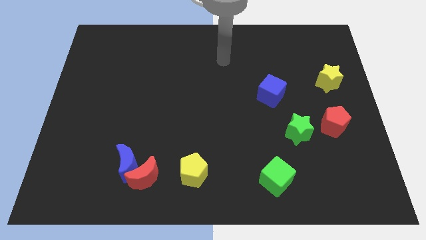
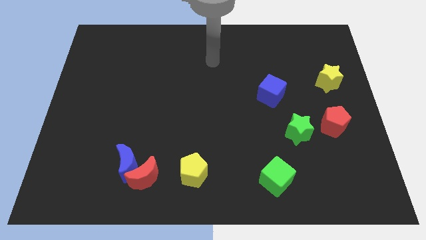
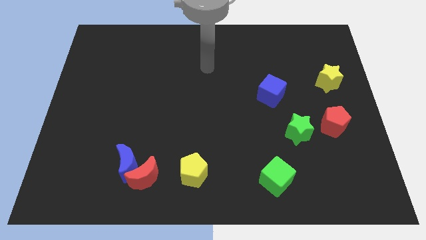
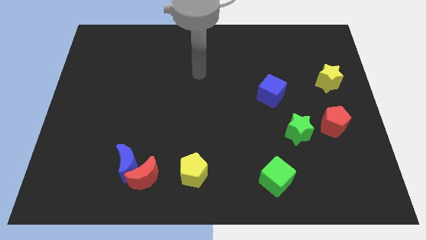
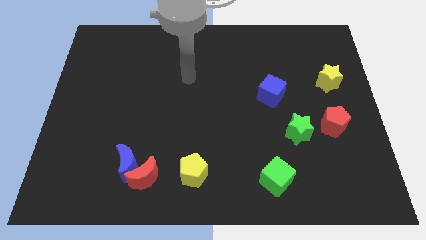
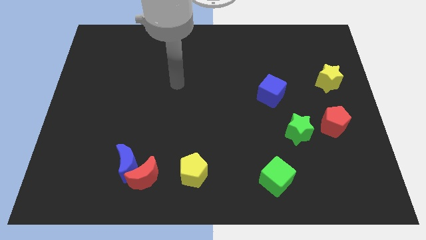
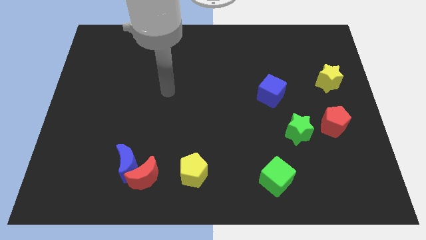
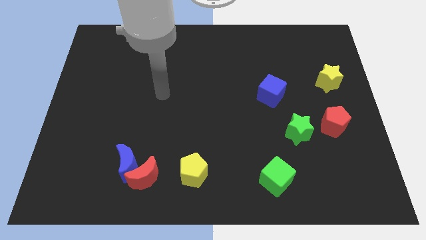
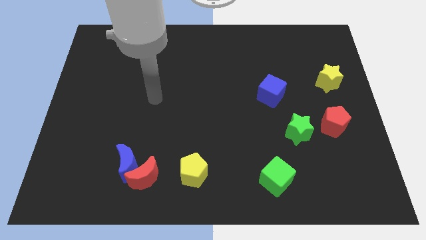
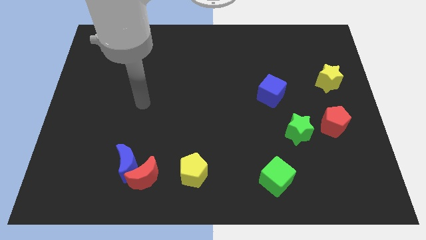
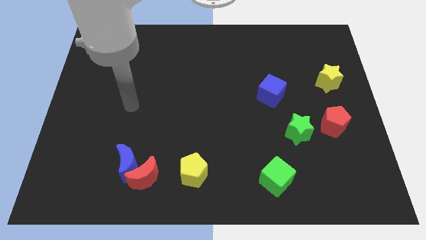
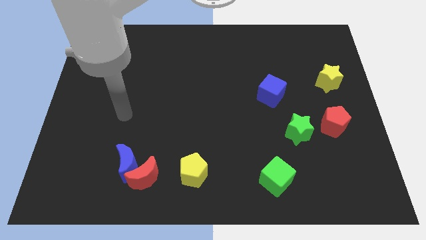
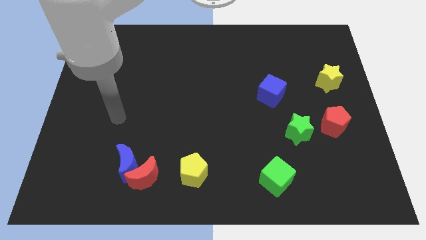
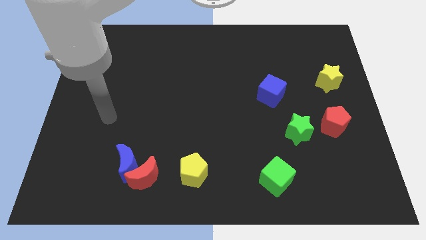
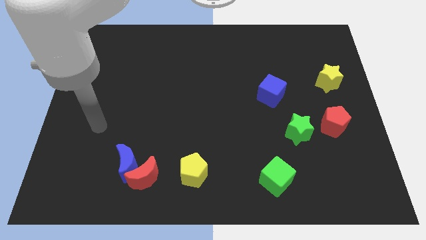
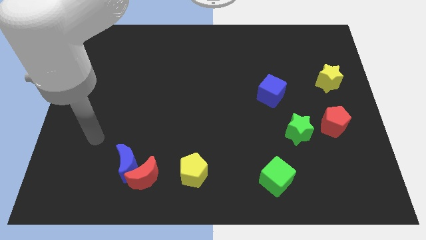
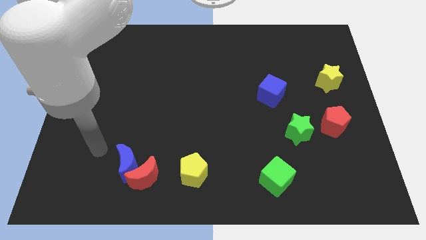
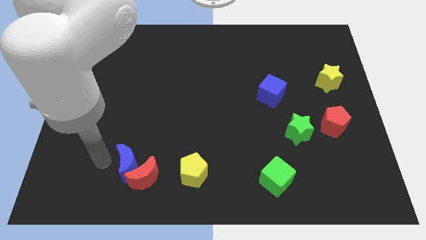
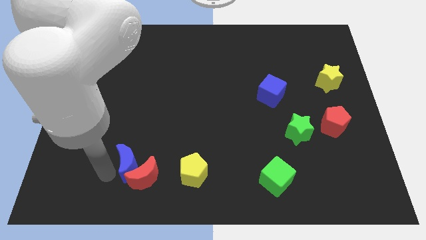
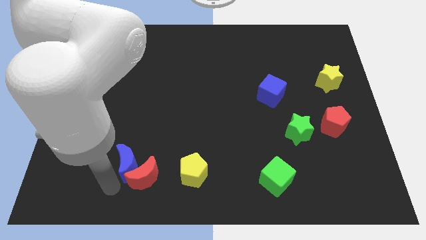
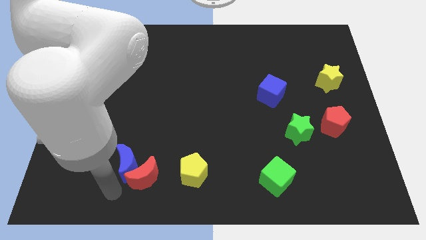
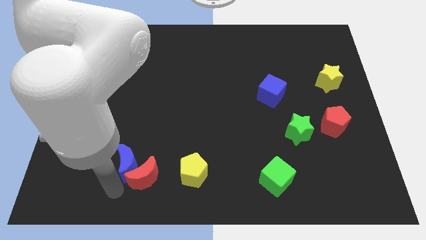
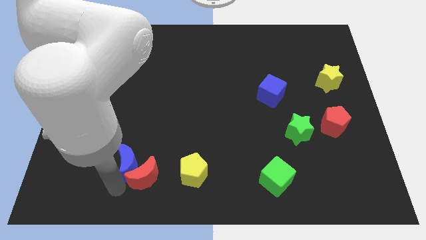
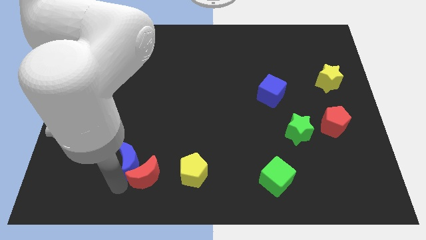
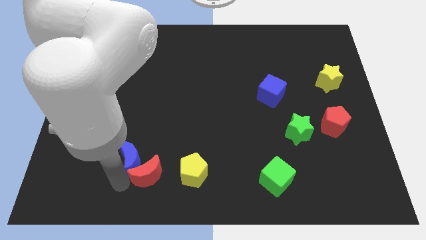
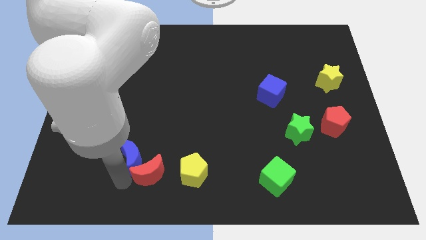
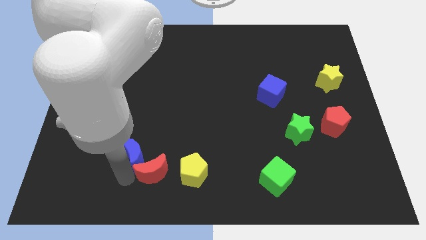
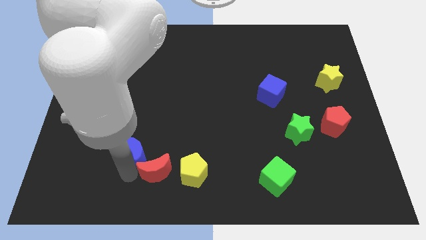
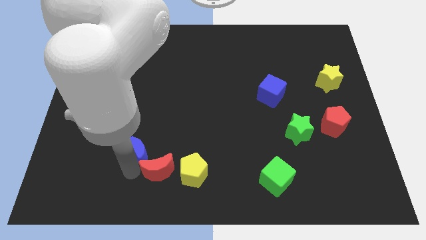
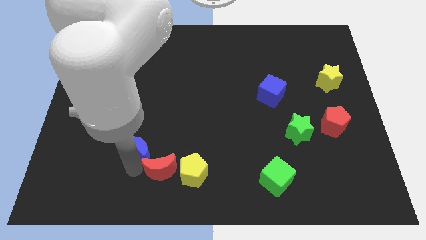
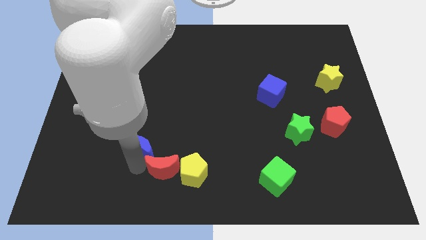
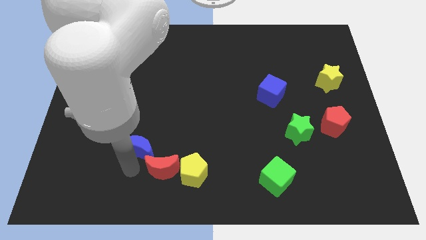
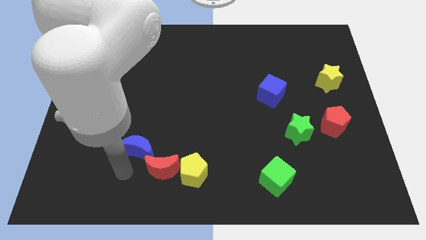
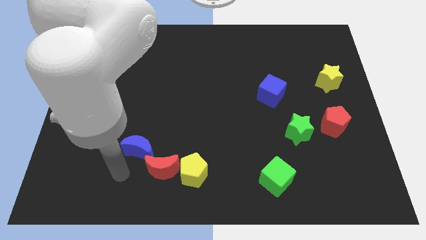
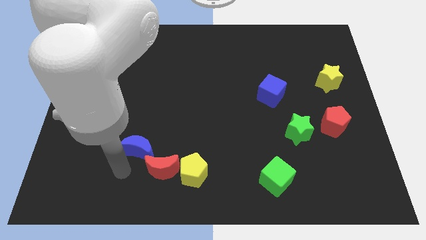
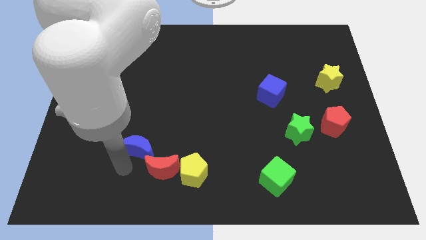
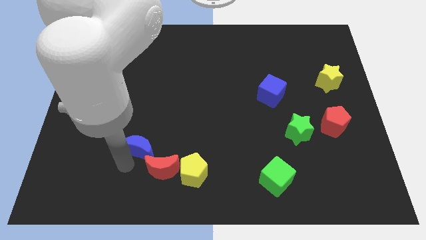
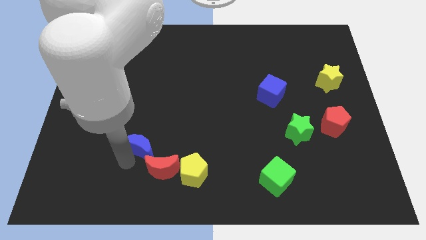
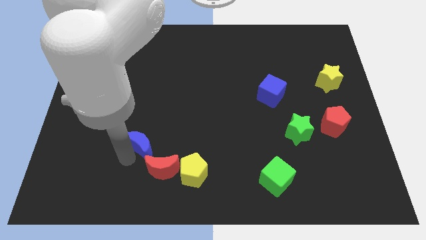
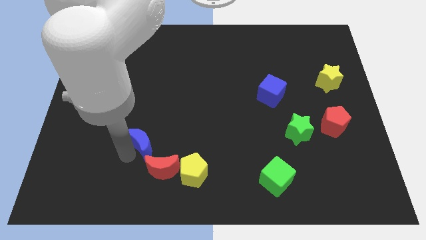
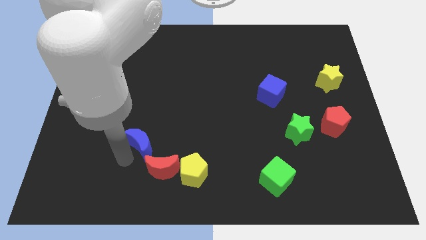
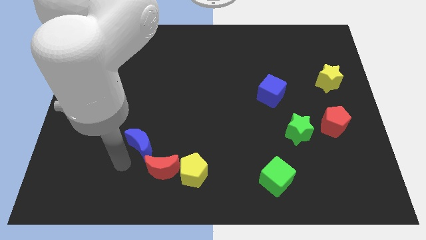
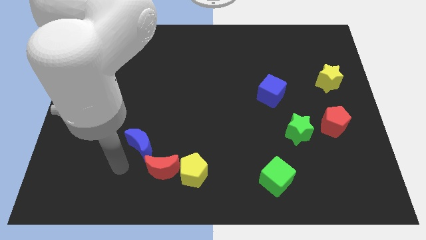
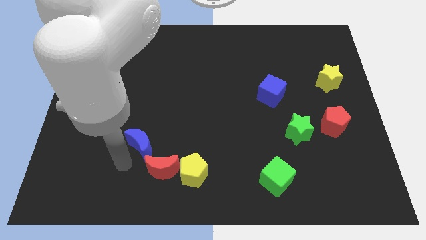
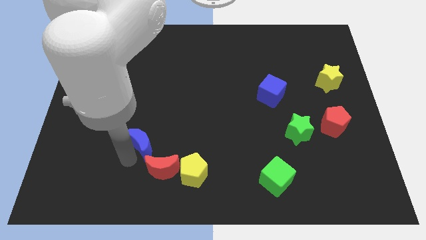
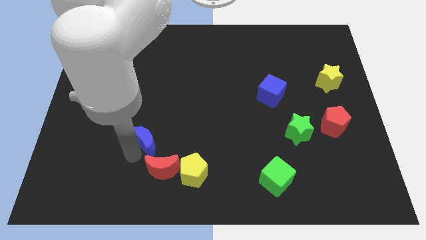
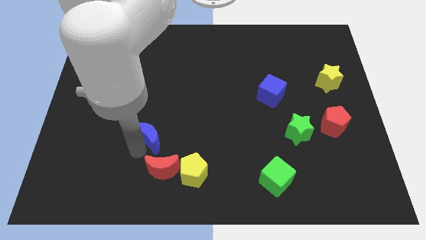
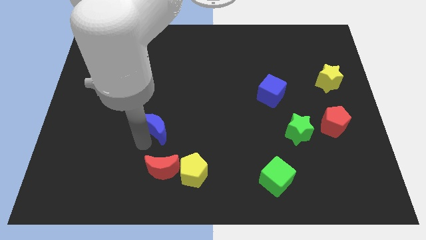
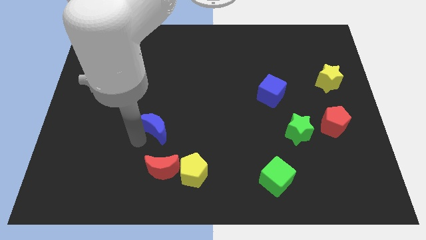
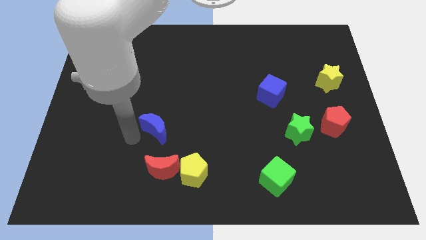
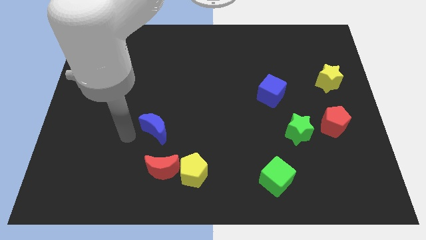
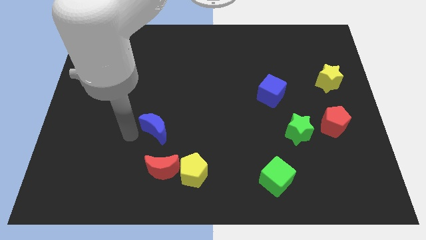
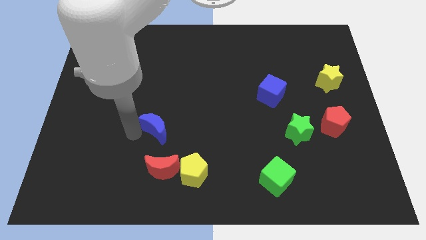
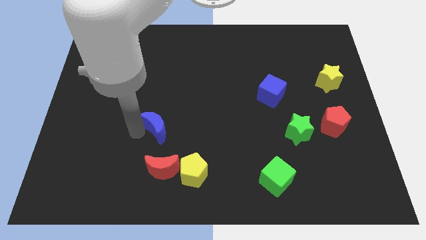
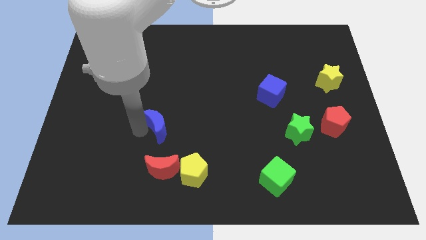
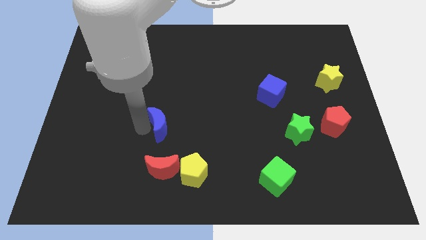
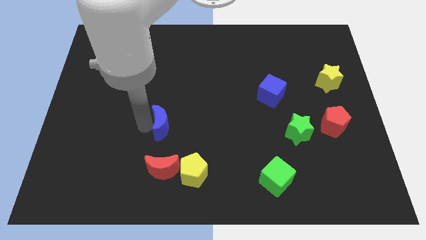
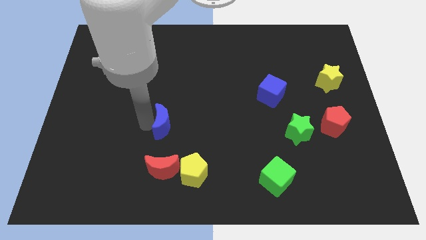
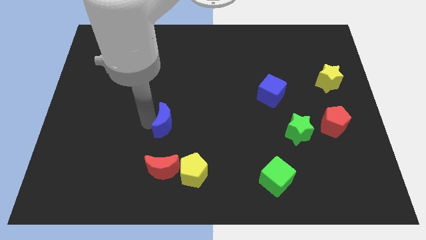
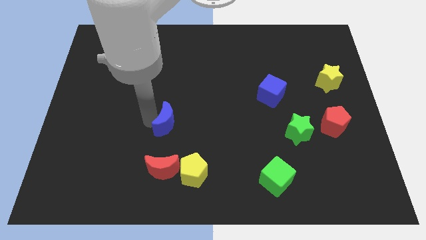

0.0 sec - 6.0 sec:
push the blue moon to the center

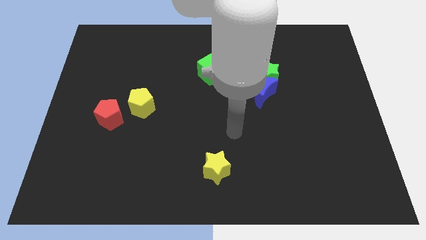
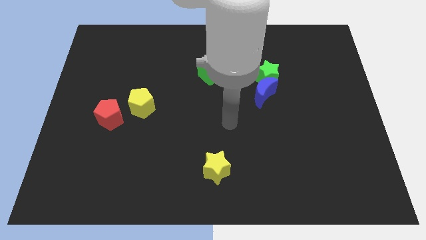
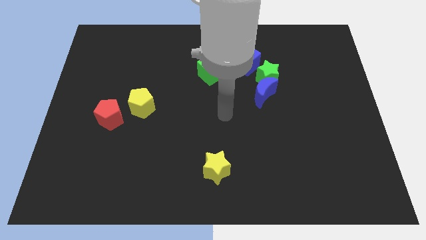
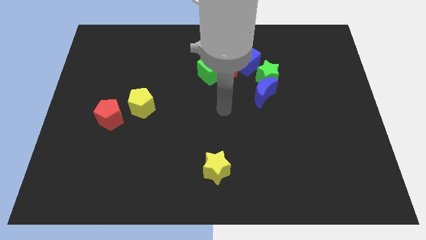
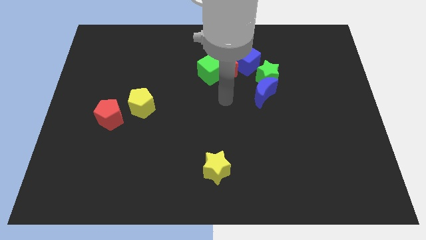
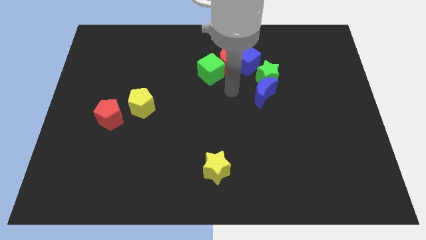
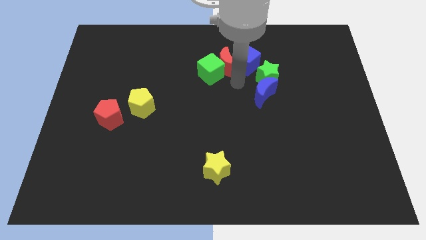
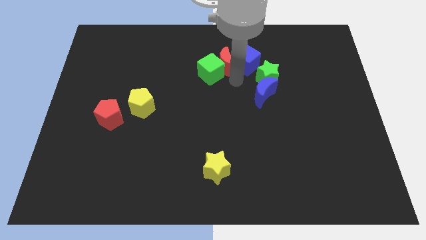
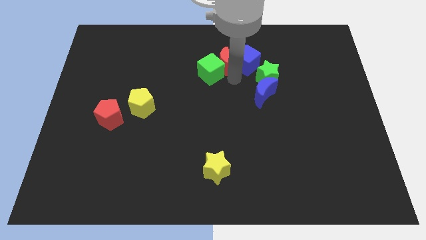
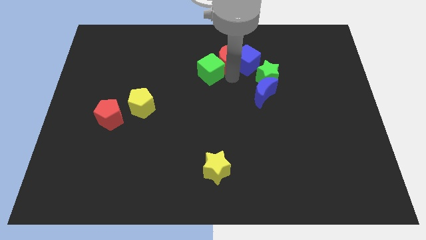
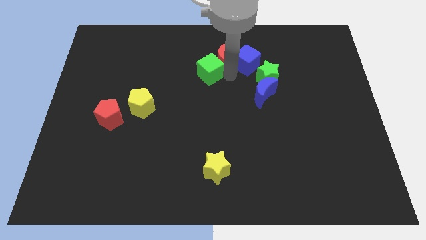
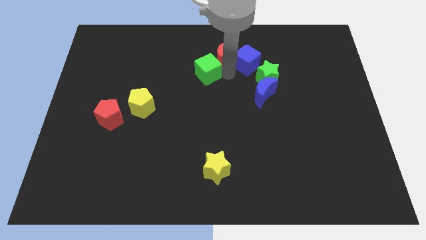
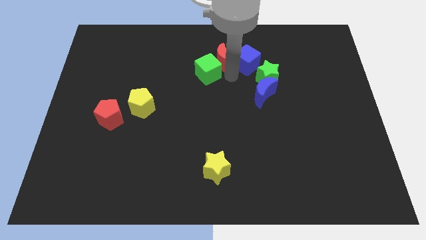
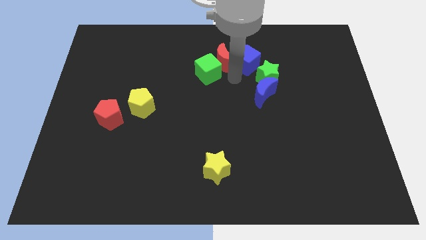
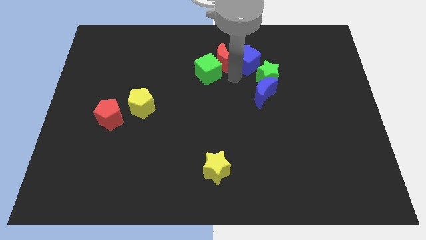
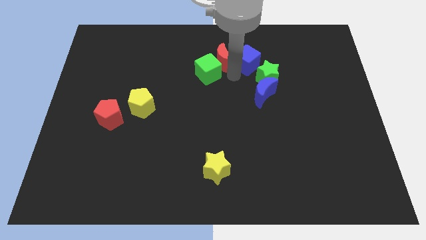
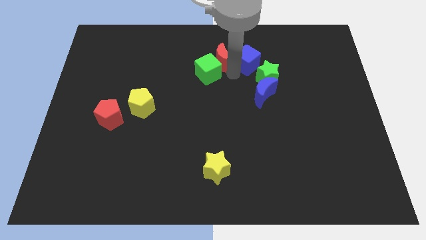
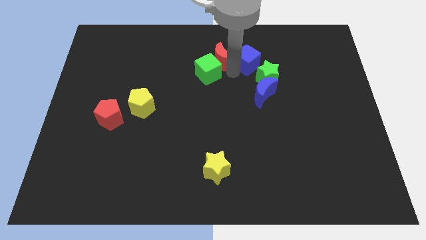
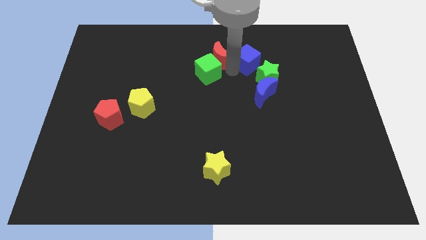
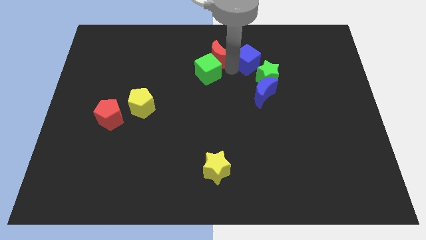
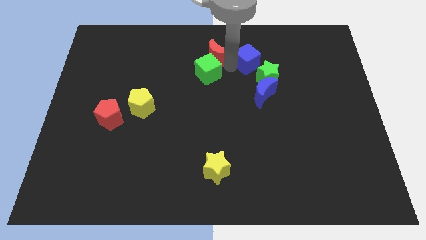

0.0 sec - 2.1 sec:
slide the red moon to the top
